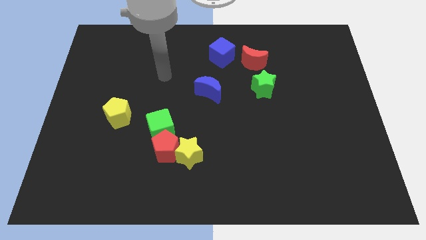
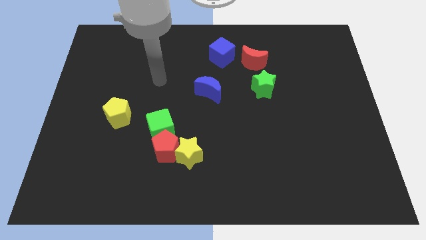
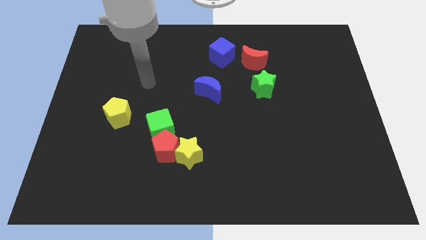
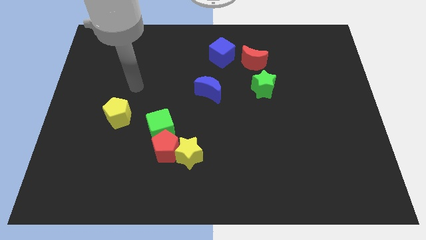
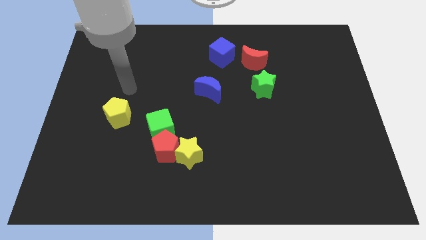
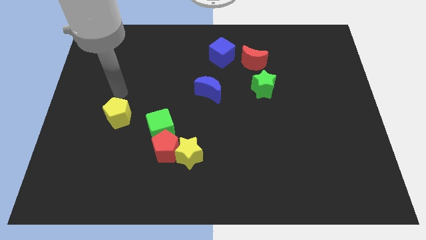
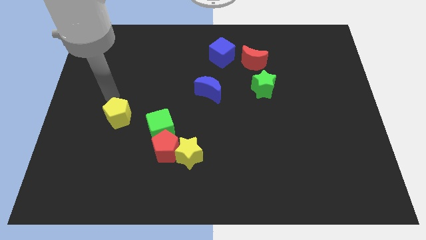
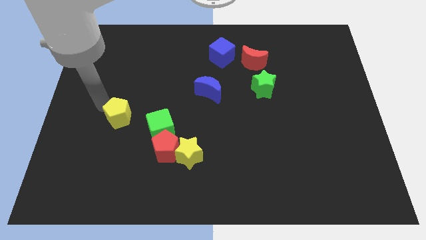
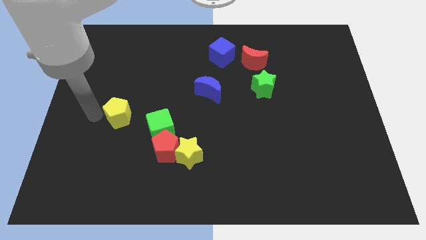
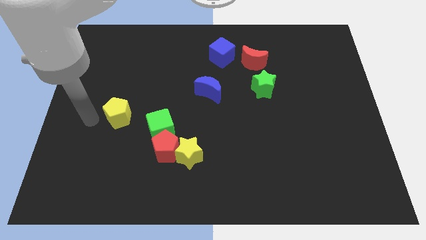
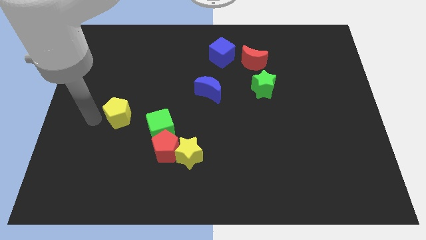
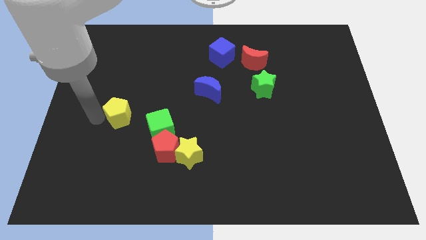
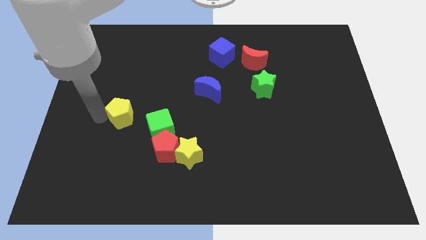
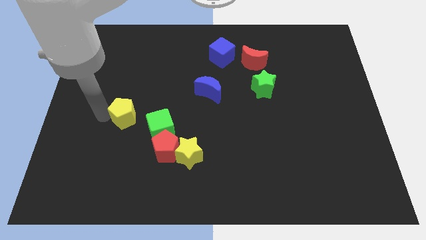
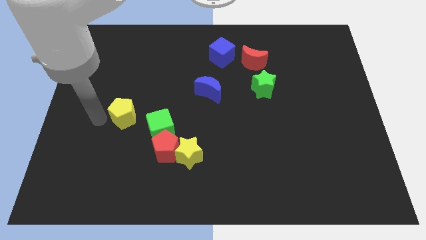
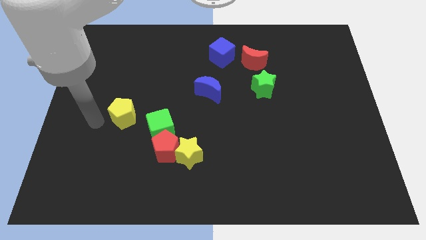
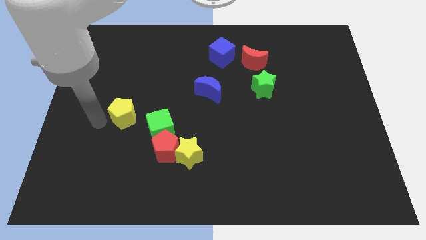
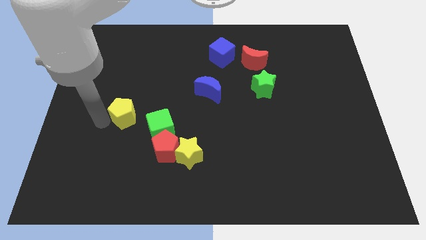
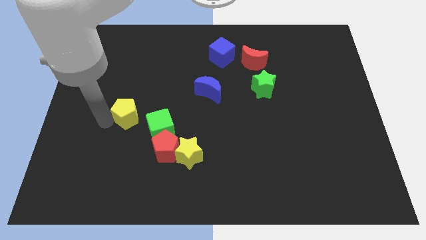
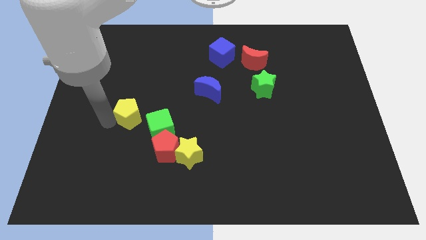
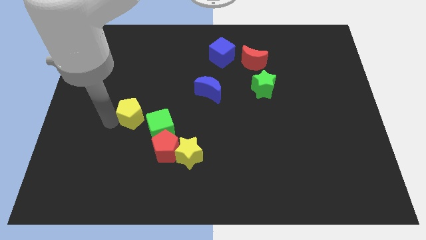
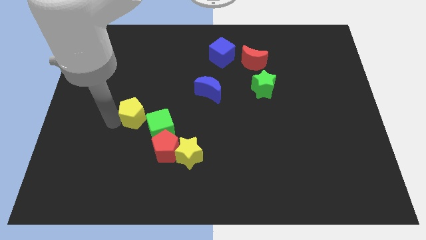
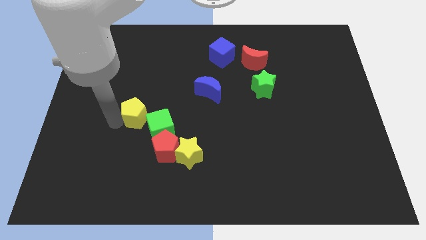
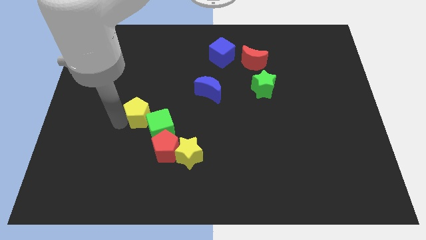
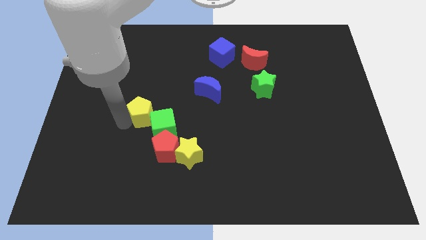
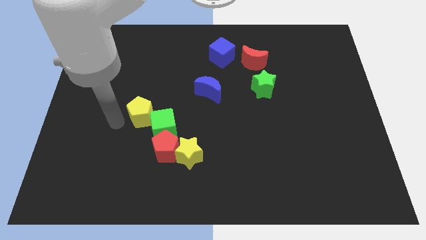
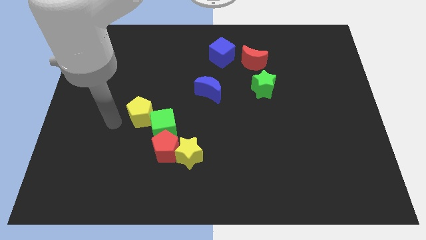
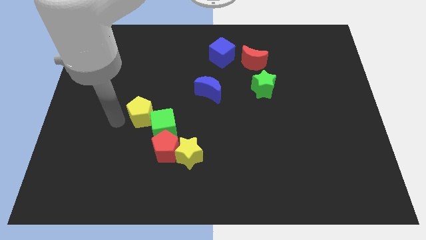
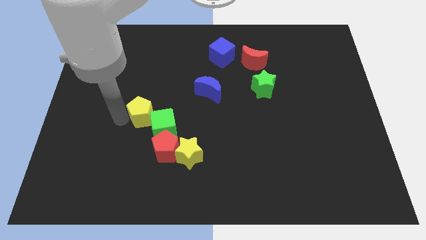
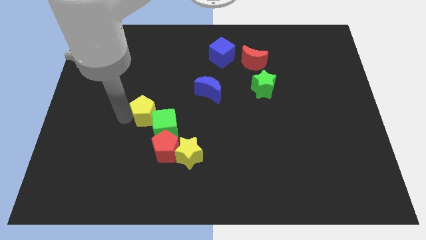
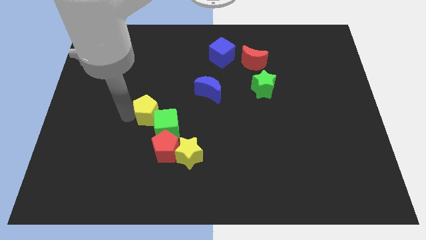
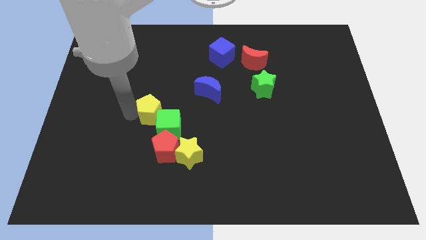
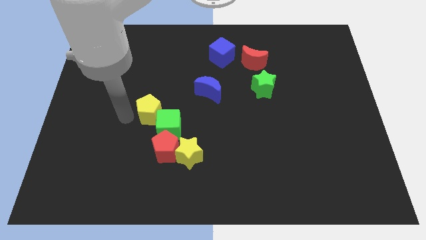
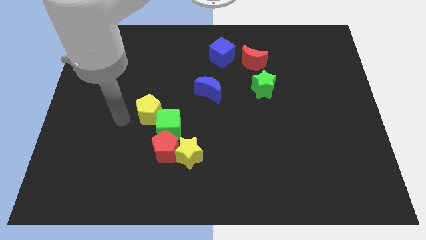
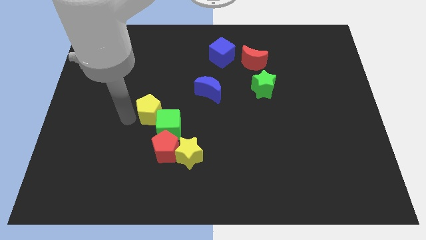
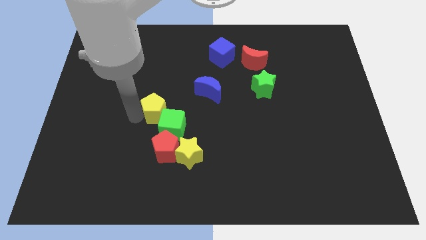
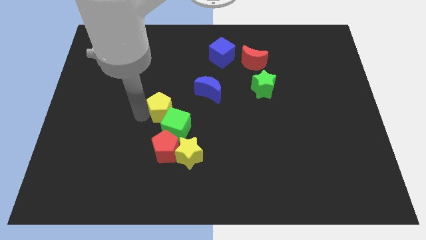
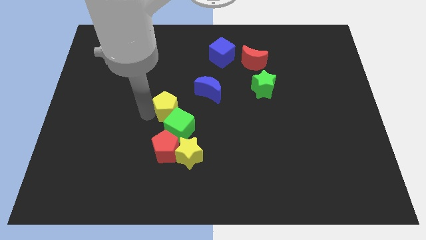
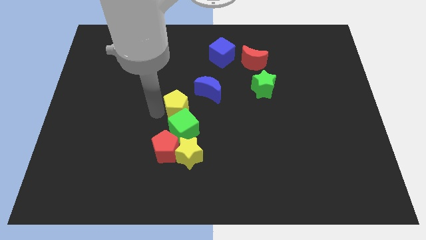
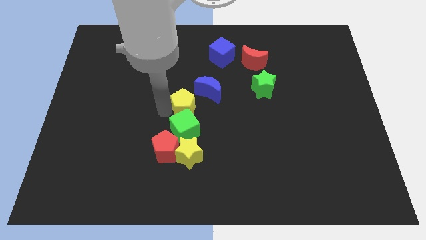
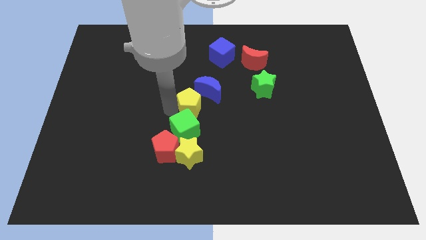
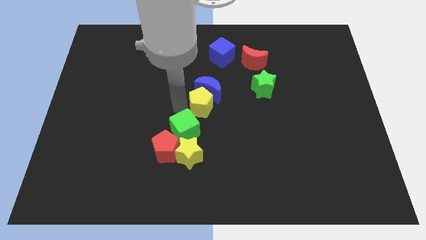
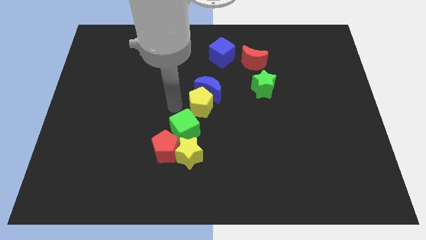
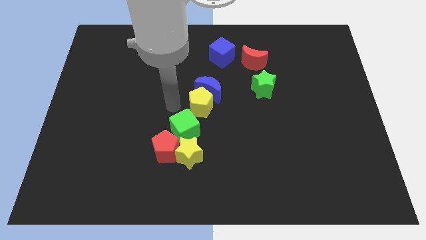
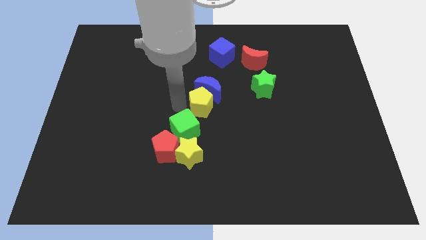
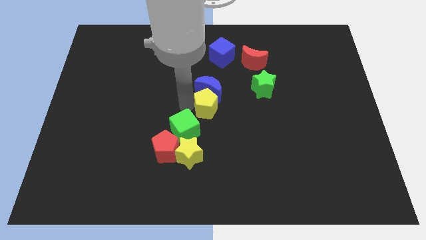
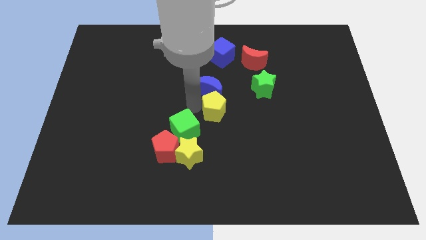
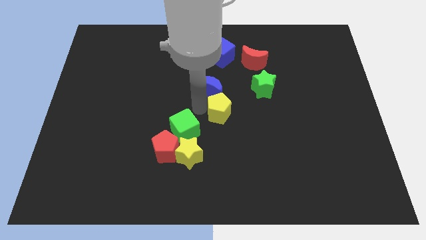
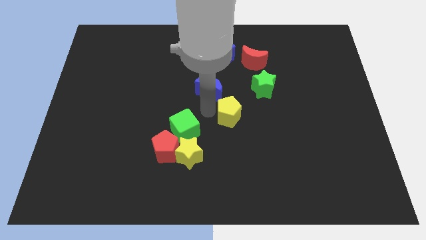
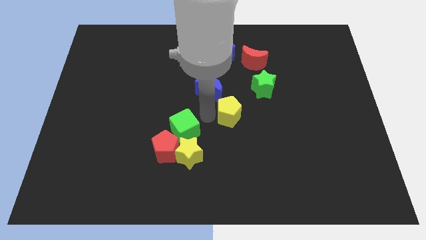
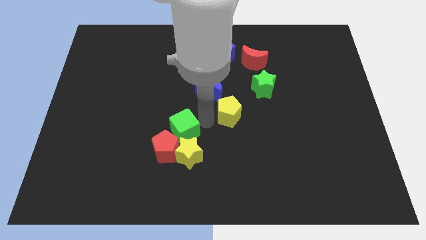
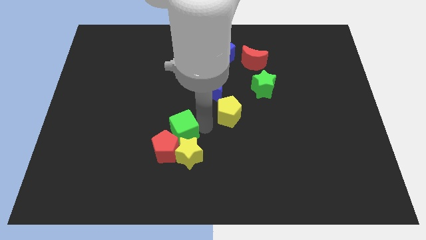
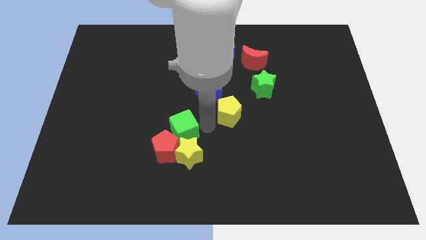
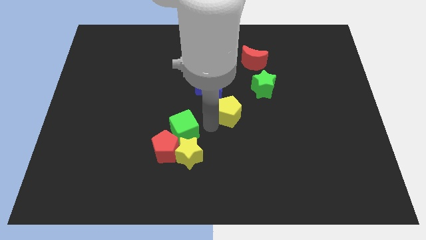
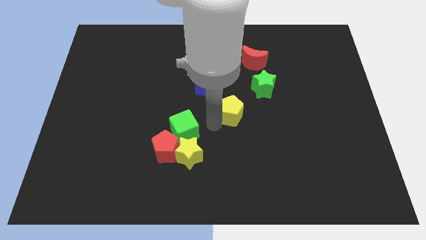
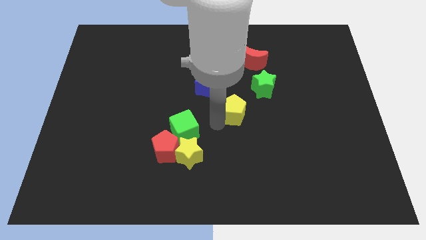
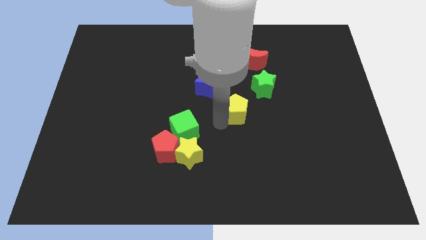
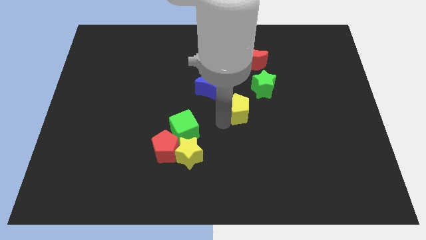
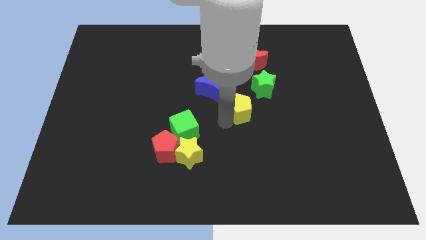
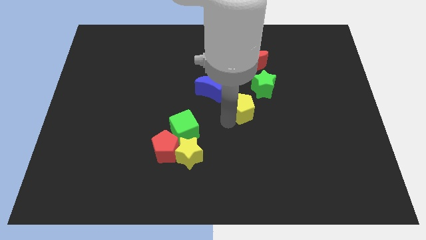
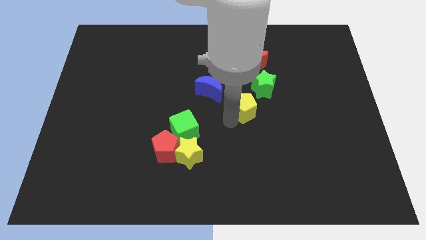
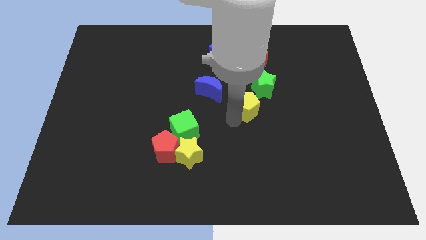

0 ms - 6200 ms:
slide the yellow pentagon to the bottom of the red moon

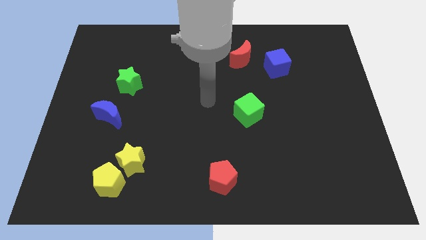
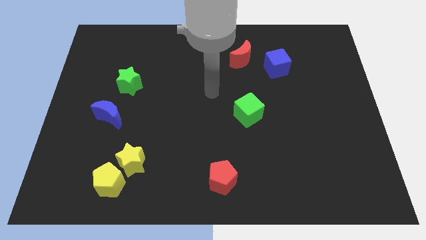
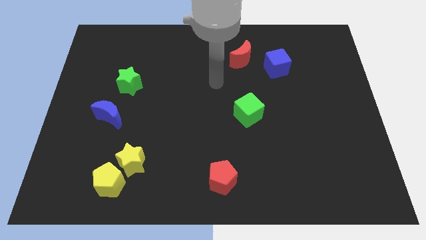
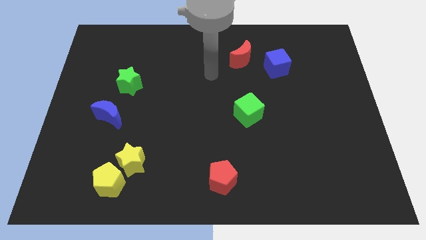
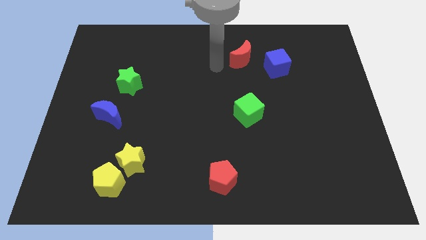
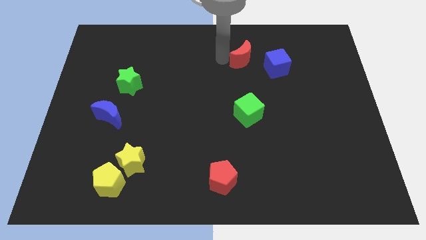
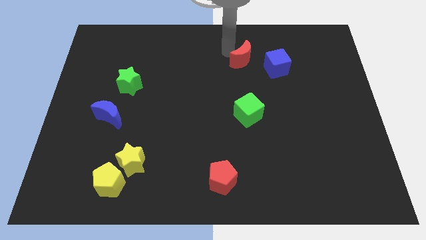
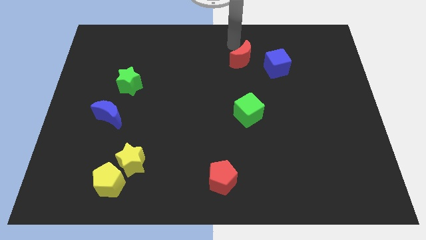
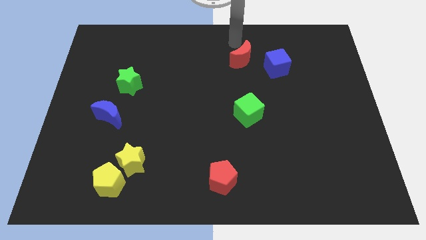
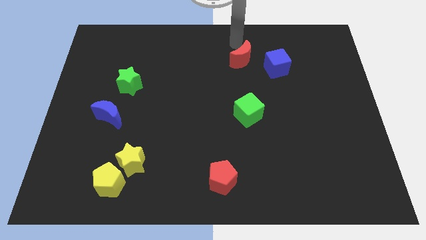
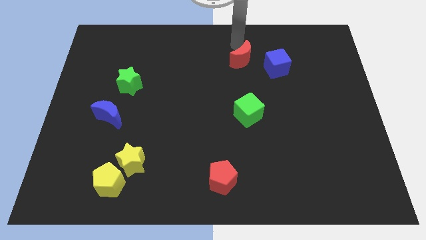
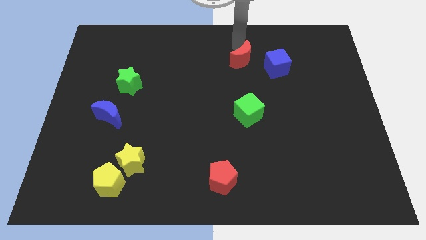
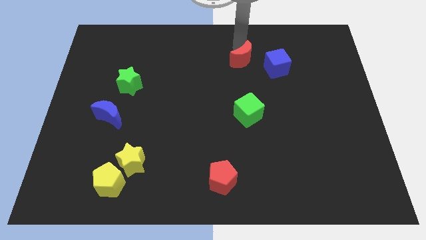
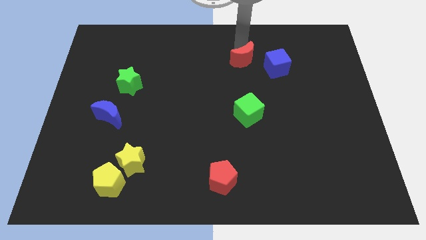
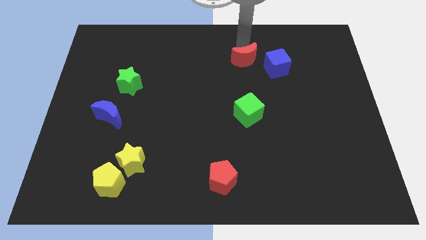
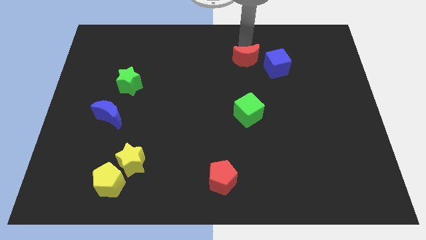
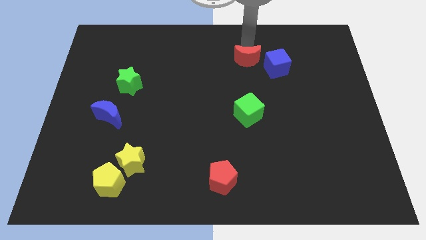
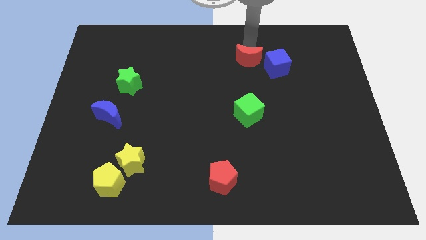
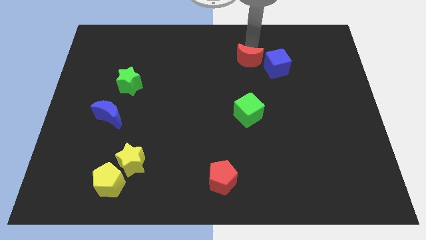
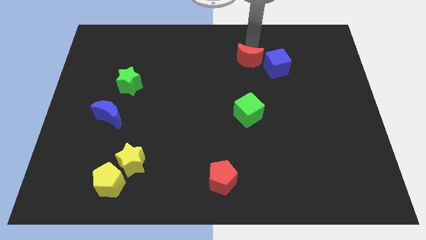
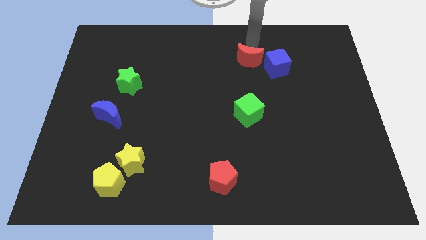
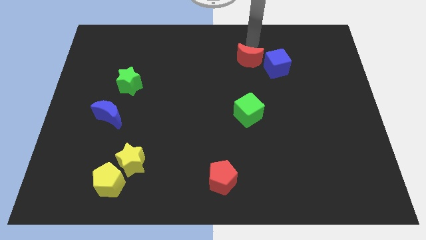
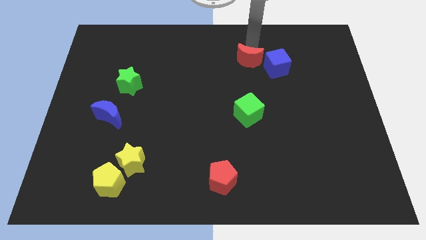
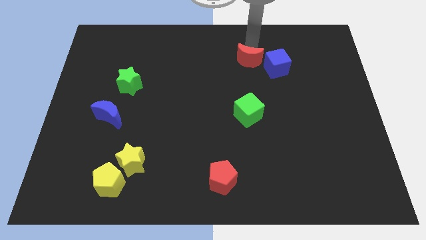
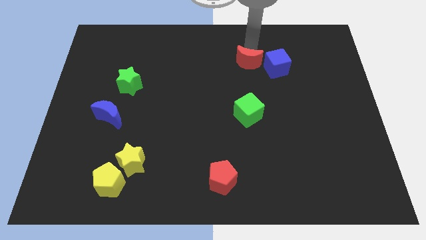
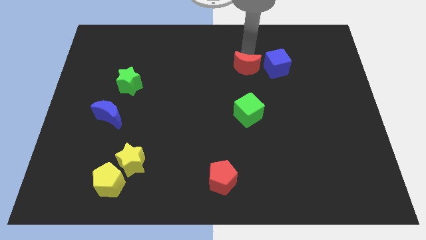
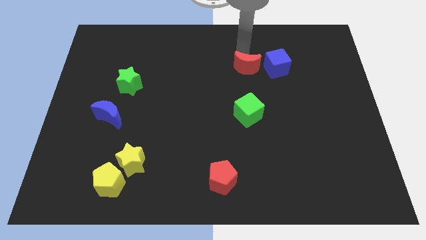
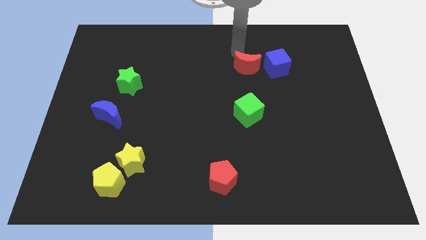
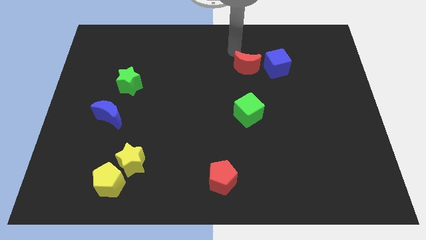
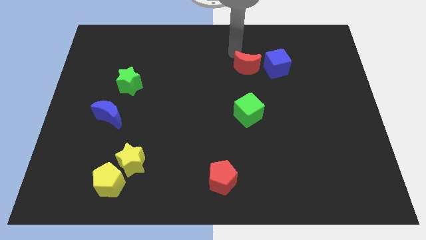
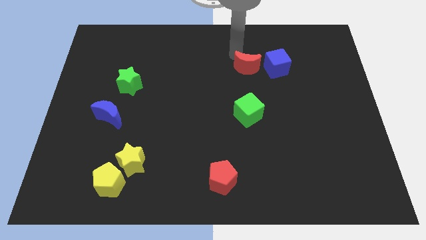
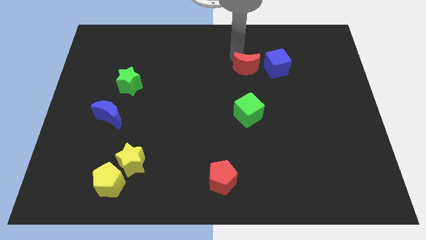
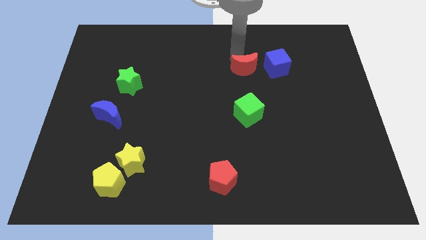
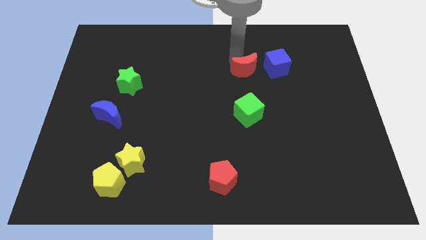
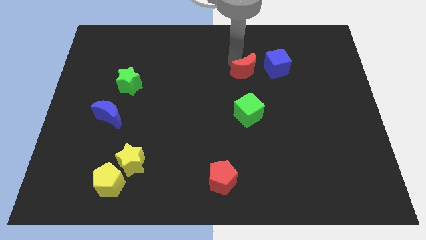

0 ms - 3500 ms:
slide the red moon to the bottom left side of the blue cube
